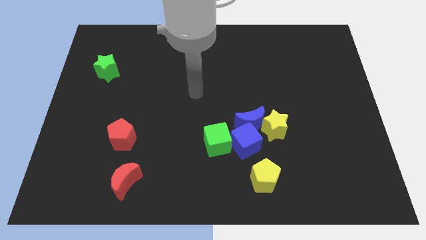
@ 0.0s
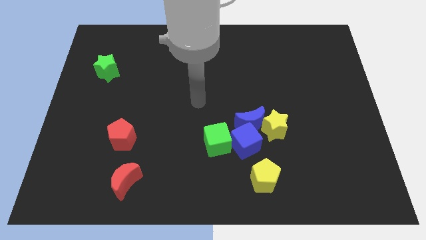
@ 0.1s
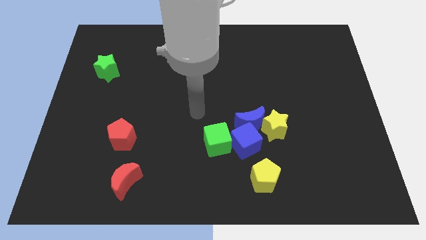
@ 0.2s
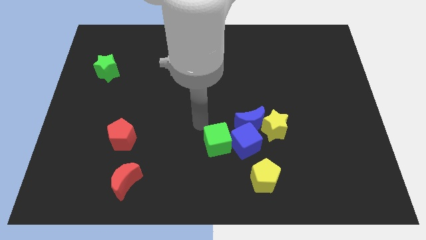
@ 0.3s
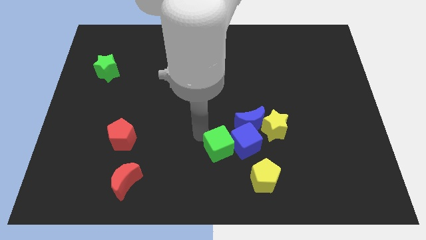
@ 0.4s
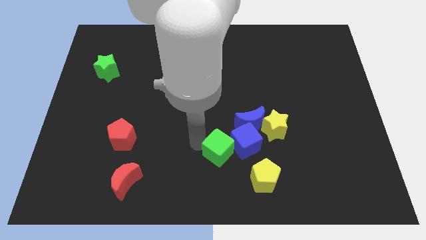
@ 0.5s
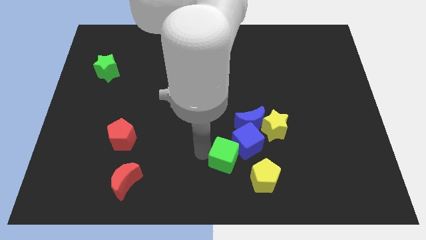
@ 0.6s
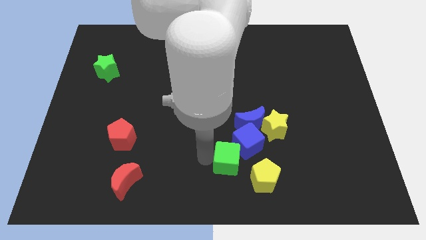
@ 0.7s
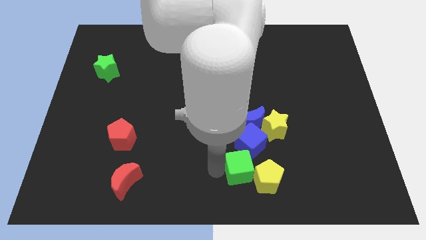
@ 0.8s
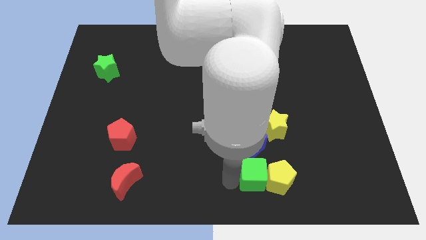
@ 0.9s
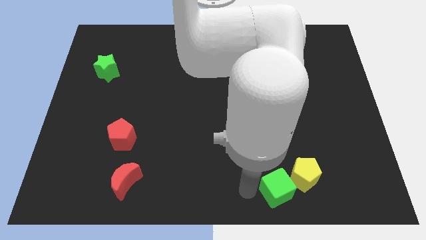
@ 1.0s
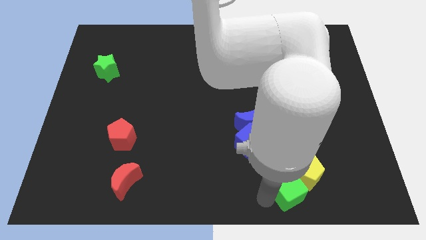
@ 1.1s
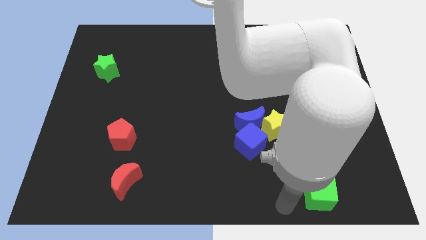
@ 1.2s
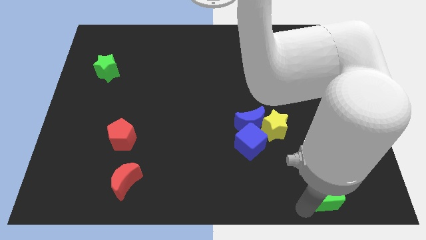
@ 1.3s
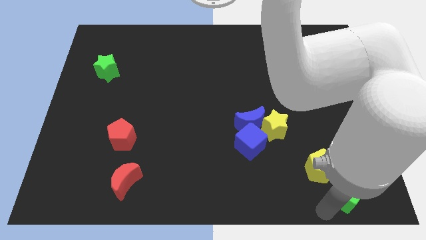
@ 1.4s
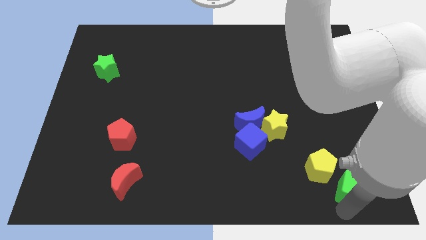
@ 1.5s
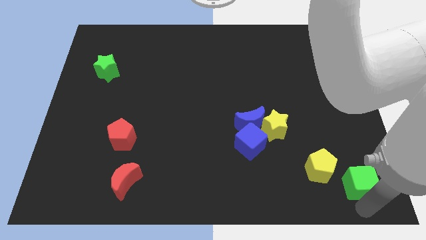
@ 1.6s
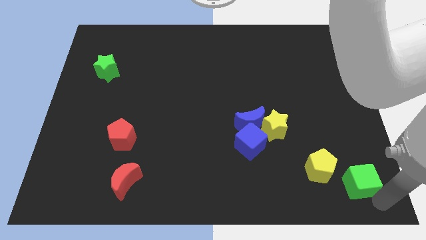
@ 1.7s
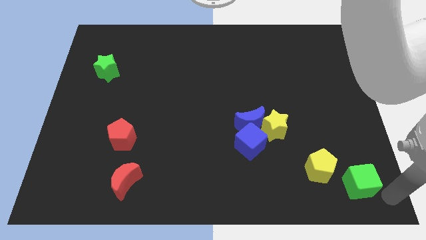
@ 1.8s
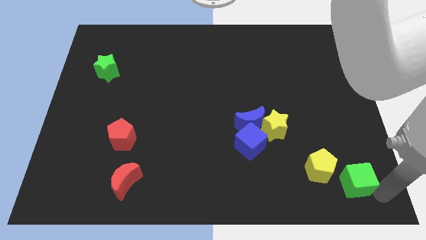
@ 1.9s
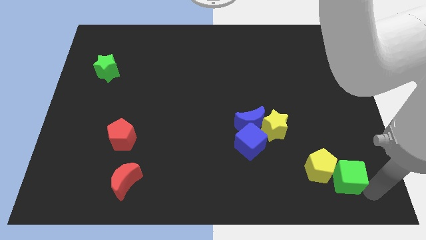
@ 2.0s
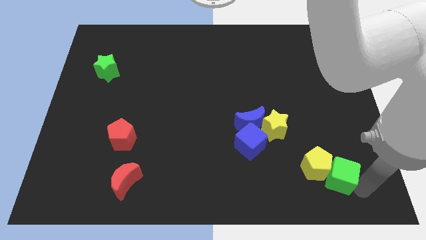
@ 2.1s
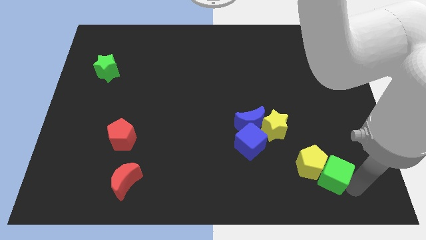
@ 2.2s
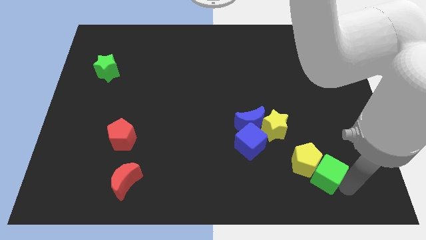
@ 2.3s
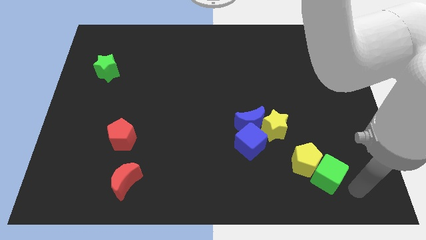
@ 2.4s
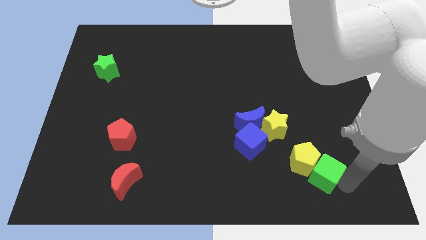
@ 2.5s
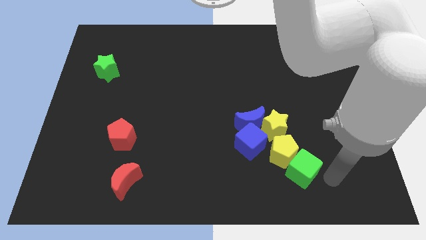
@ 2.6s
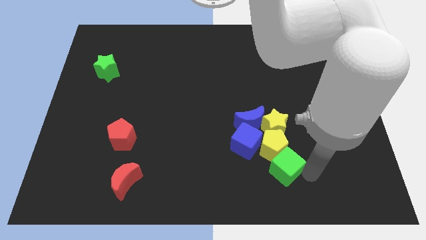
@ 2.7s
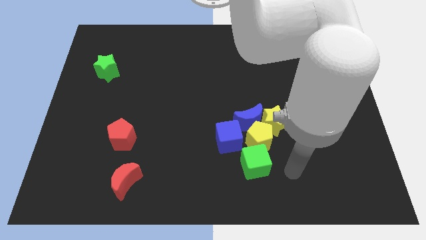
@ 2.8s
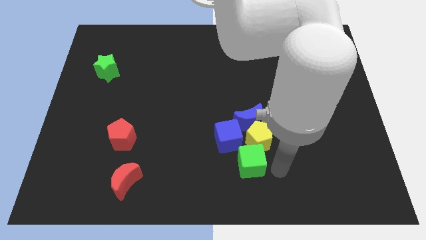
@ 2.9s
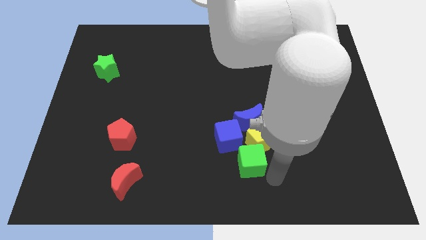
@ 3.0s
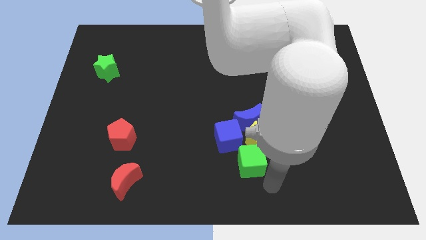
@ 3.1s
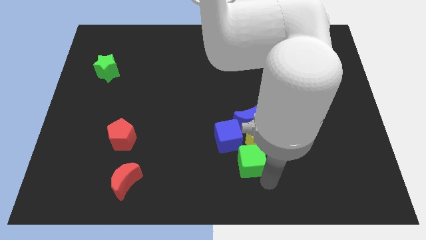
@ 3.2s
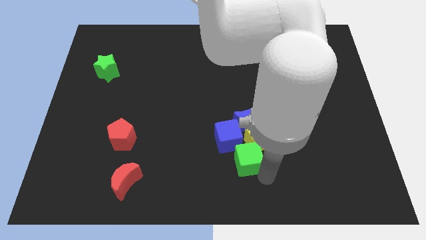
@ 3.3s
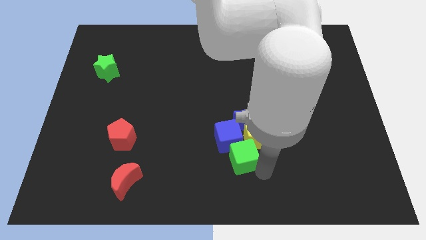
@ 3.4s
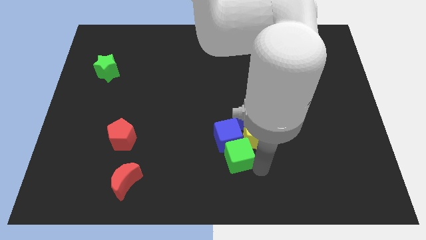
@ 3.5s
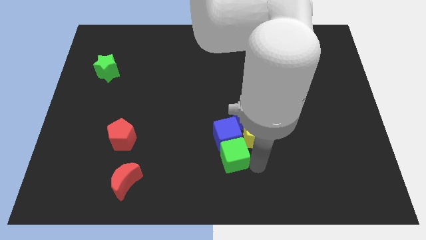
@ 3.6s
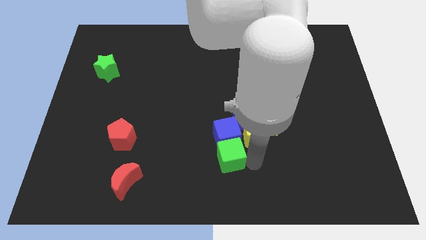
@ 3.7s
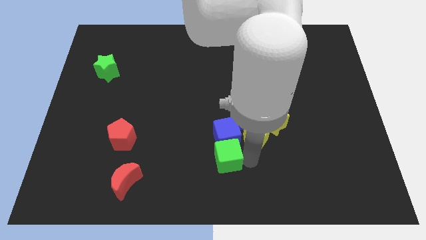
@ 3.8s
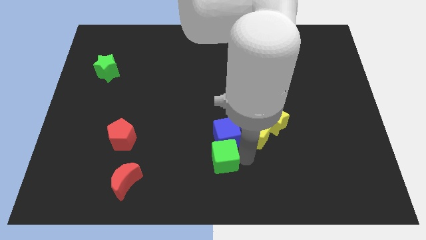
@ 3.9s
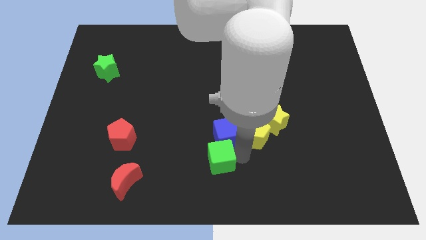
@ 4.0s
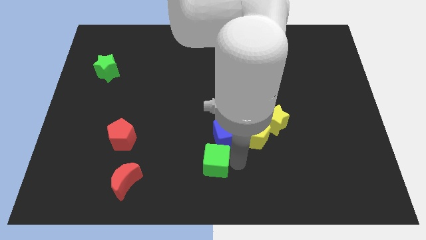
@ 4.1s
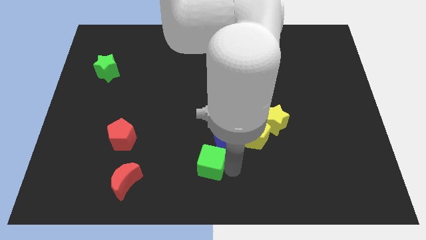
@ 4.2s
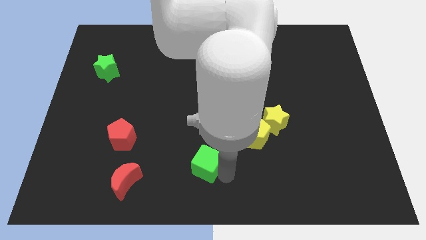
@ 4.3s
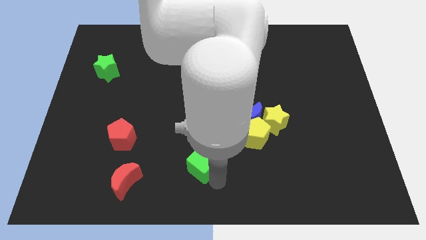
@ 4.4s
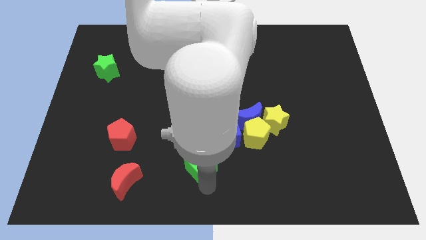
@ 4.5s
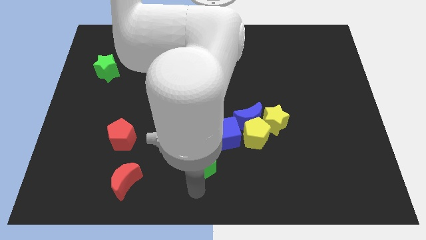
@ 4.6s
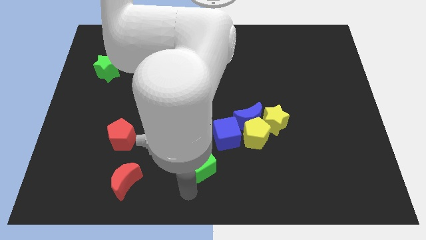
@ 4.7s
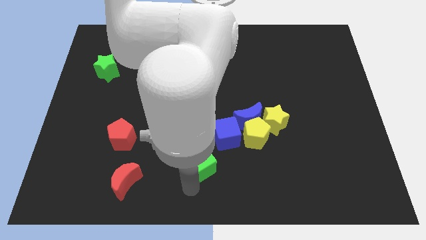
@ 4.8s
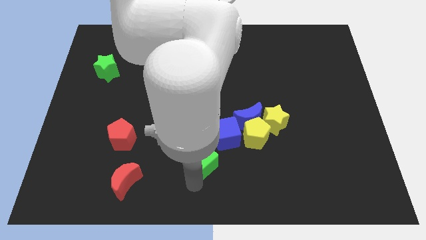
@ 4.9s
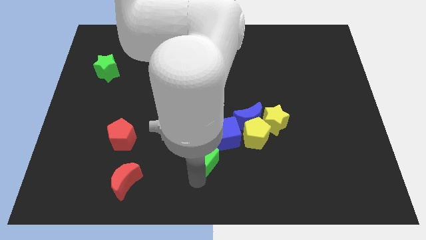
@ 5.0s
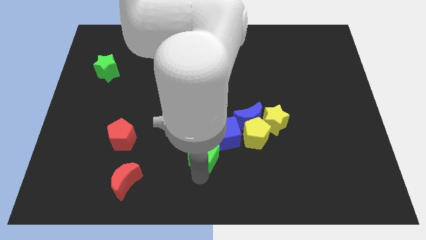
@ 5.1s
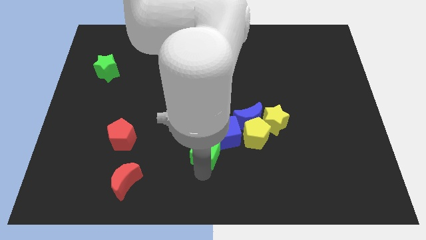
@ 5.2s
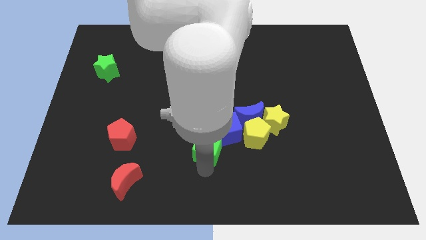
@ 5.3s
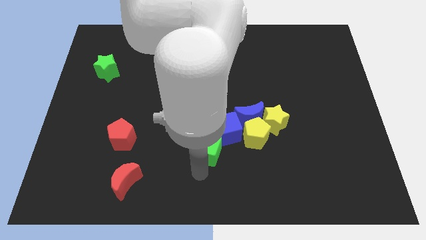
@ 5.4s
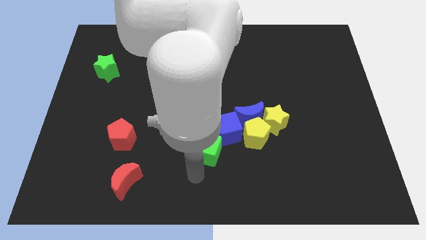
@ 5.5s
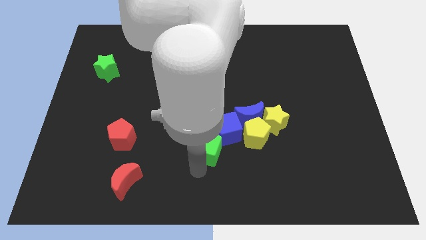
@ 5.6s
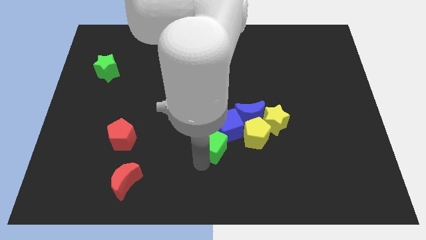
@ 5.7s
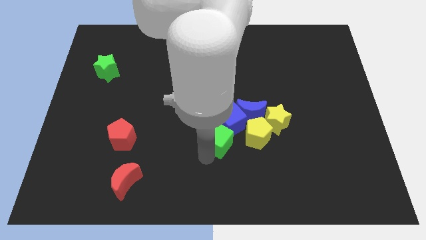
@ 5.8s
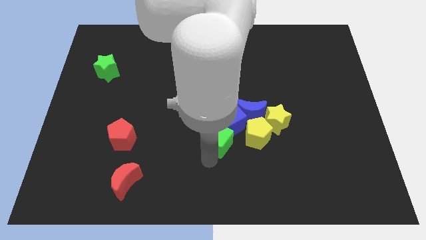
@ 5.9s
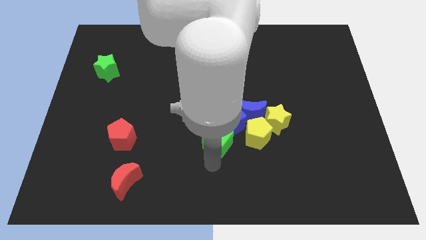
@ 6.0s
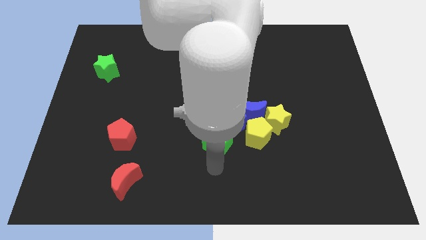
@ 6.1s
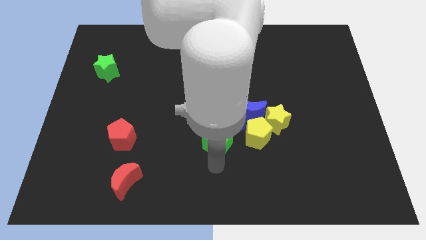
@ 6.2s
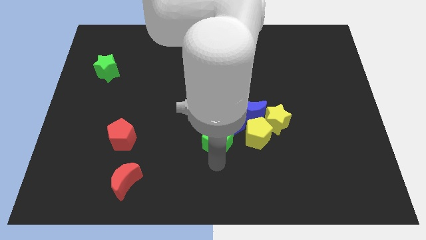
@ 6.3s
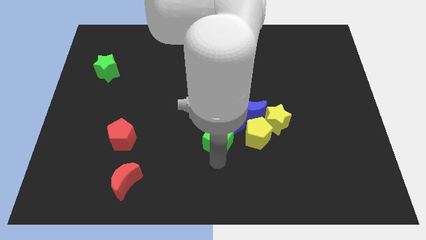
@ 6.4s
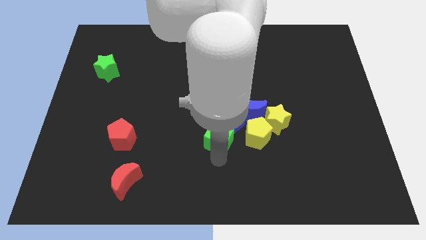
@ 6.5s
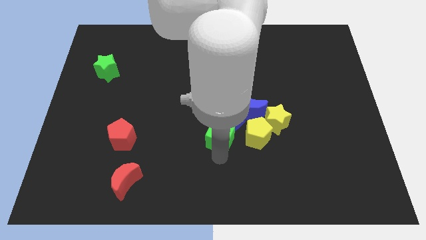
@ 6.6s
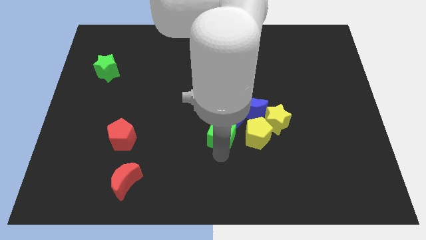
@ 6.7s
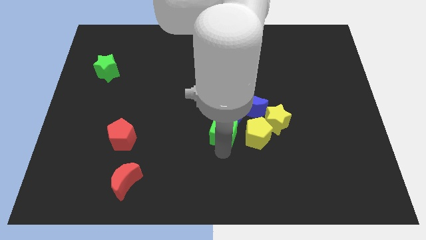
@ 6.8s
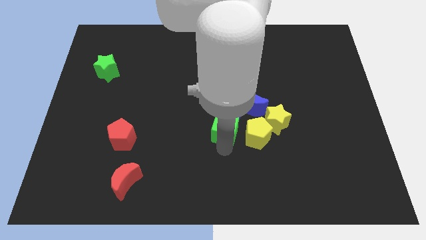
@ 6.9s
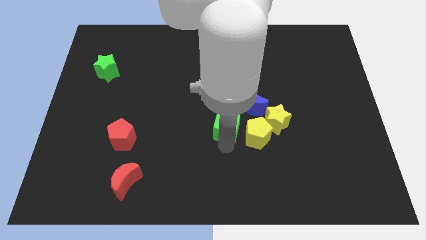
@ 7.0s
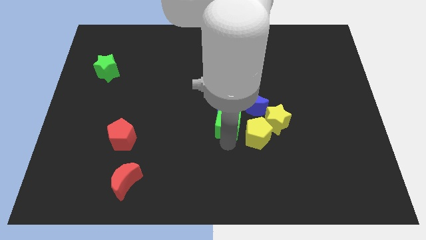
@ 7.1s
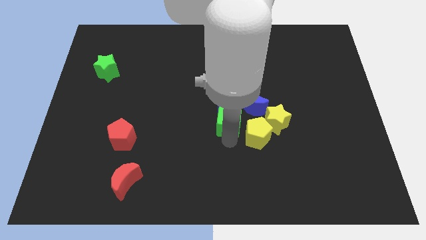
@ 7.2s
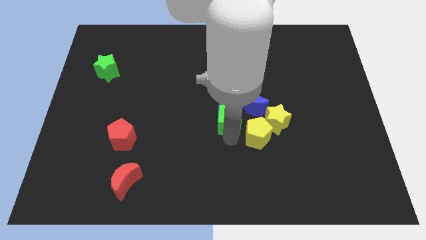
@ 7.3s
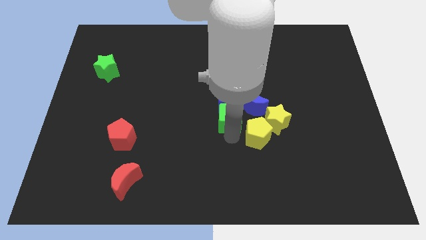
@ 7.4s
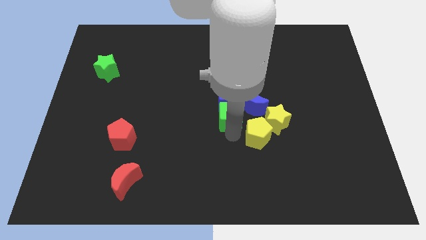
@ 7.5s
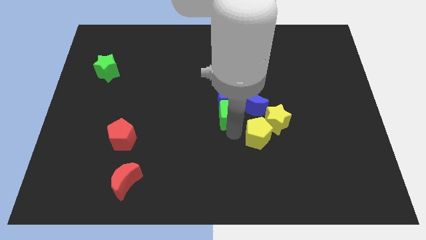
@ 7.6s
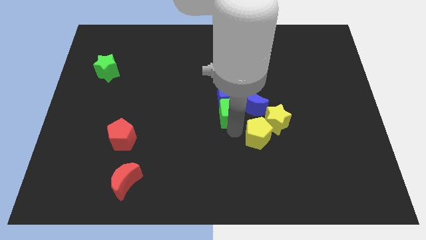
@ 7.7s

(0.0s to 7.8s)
slightly slide the green cube up

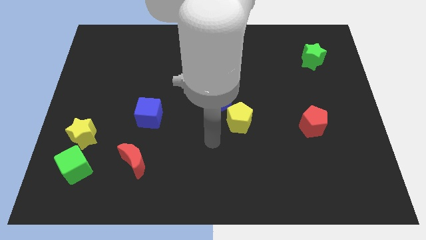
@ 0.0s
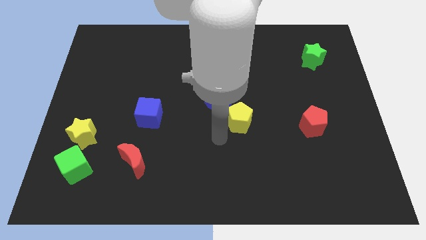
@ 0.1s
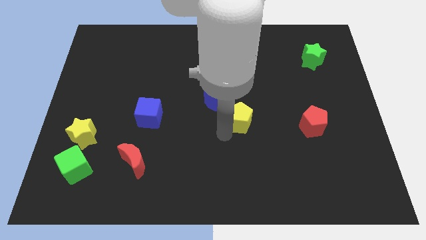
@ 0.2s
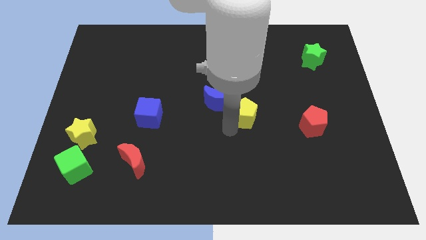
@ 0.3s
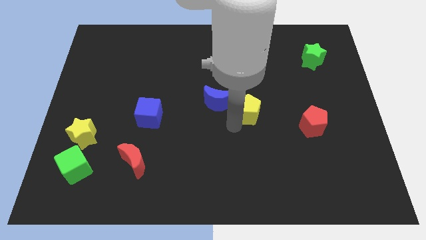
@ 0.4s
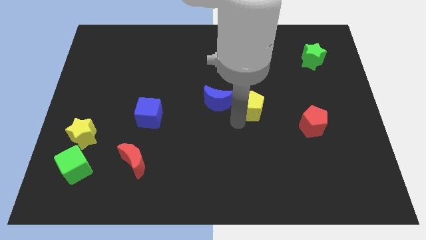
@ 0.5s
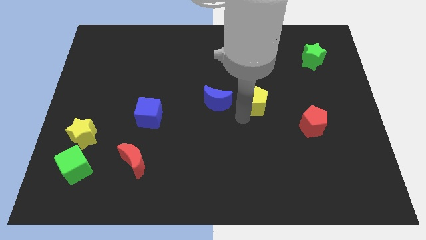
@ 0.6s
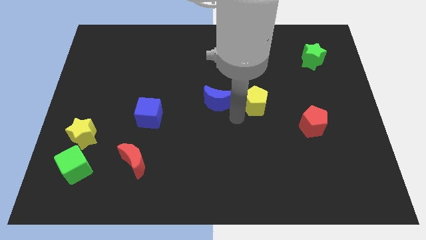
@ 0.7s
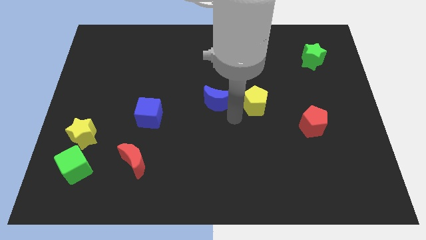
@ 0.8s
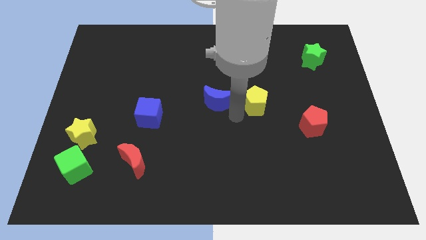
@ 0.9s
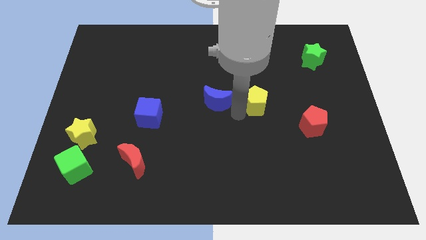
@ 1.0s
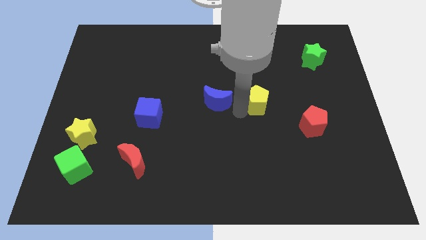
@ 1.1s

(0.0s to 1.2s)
slide the yellow pentagon up and to the right slightly
